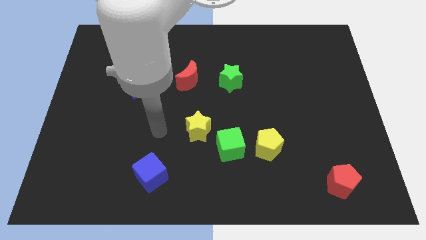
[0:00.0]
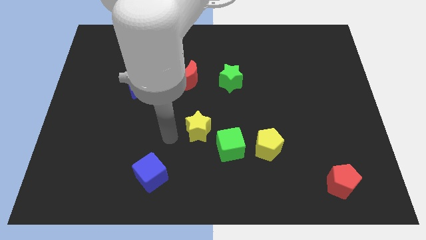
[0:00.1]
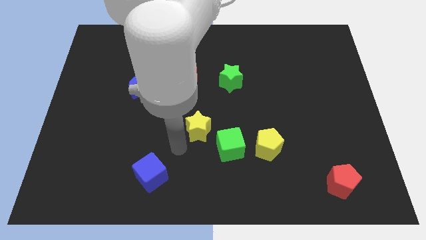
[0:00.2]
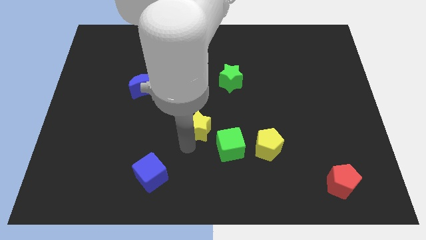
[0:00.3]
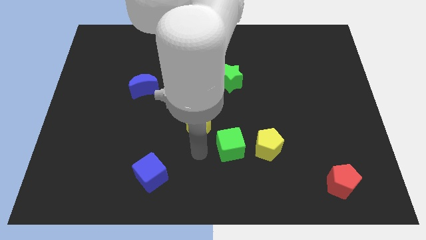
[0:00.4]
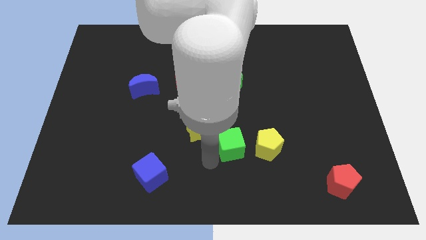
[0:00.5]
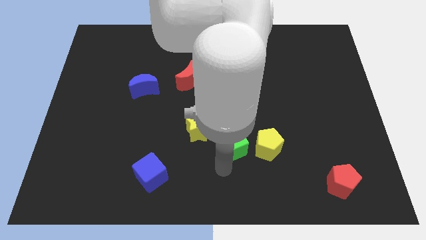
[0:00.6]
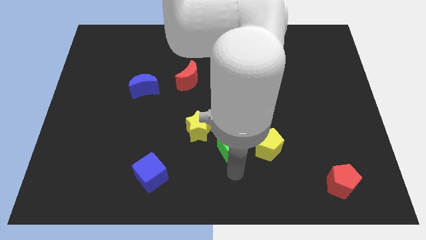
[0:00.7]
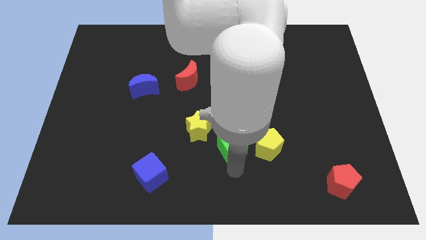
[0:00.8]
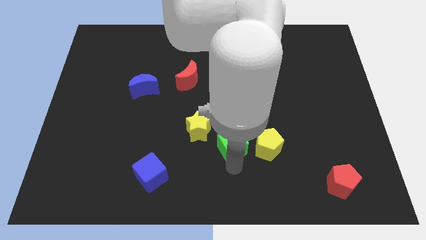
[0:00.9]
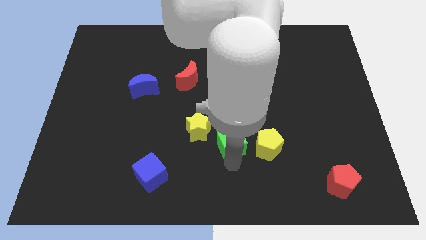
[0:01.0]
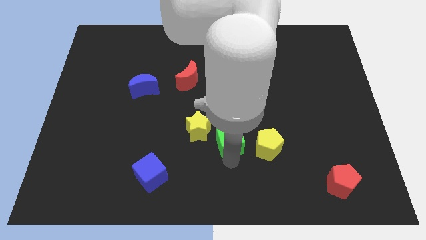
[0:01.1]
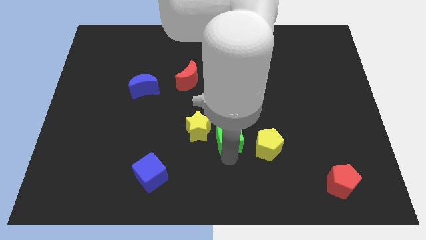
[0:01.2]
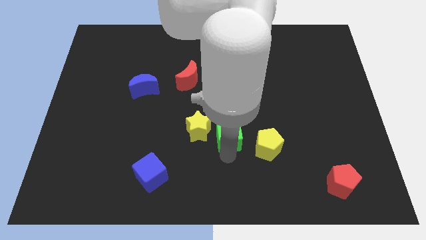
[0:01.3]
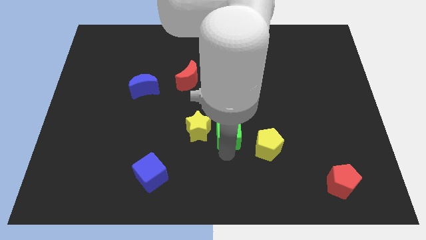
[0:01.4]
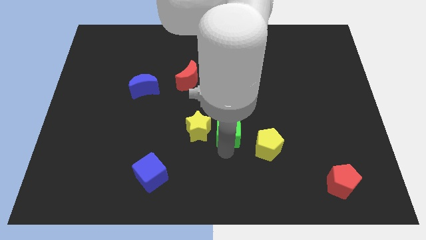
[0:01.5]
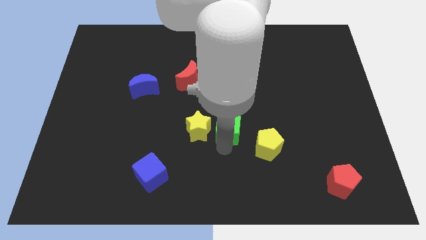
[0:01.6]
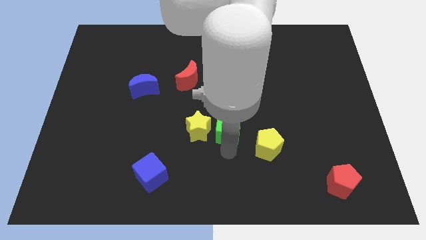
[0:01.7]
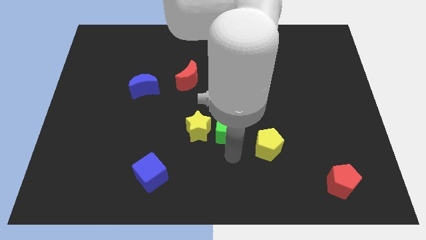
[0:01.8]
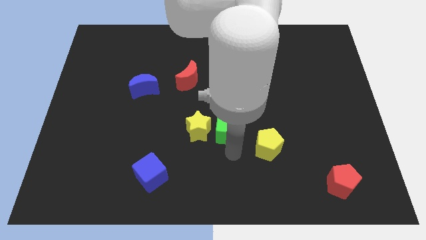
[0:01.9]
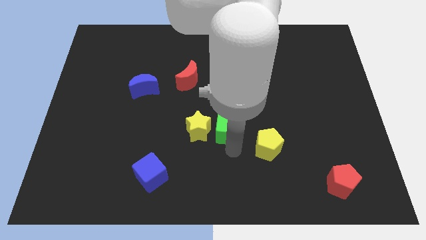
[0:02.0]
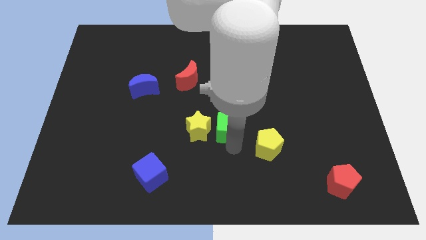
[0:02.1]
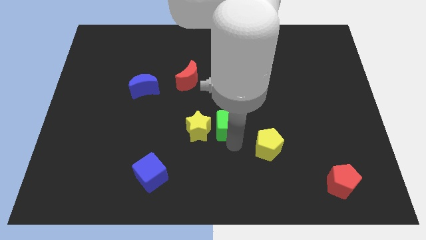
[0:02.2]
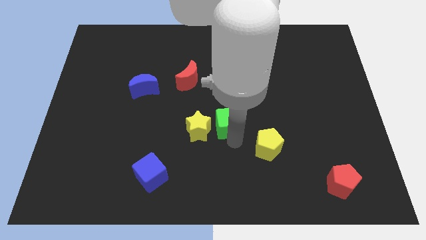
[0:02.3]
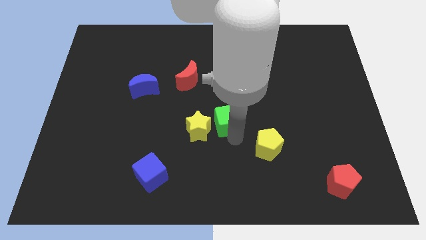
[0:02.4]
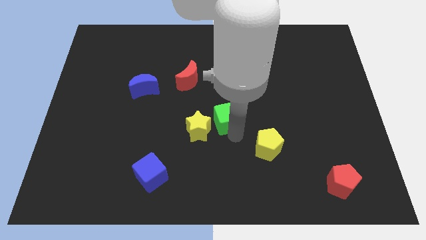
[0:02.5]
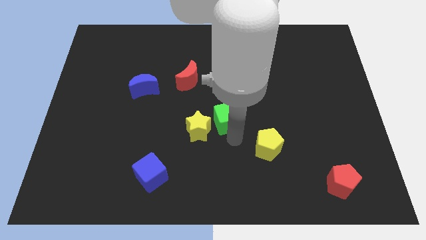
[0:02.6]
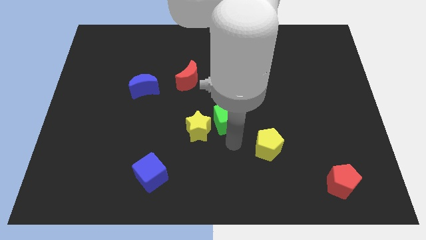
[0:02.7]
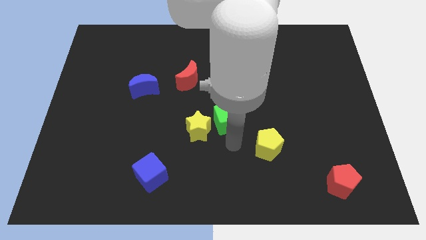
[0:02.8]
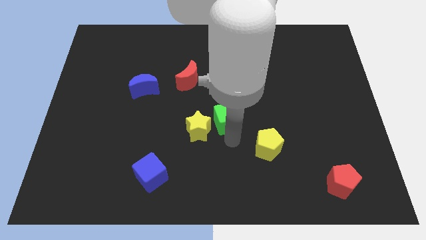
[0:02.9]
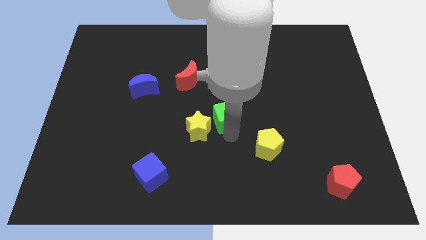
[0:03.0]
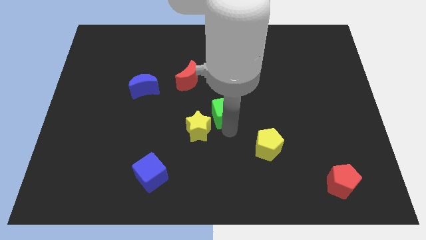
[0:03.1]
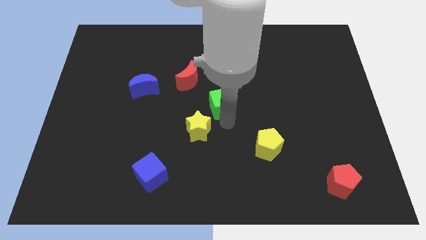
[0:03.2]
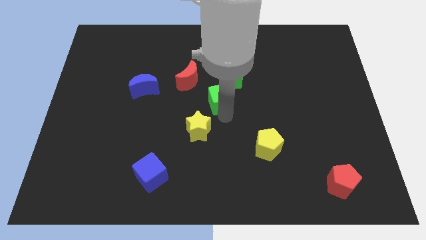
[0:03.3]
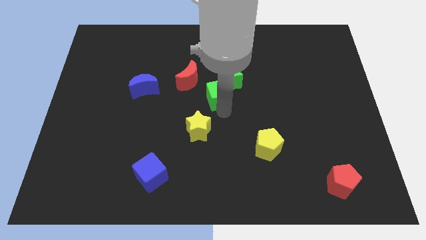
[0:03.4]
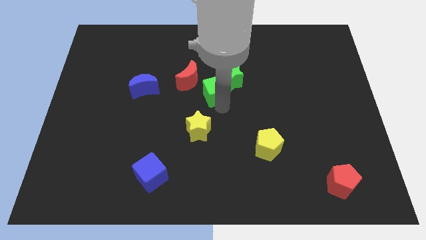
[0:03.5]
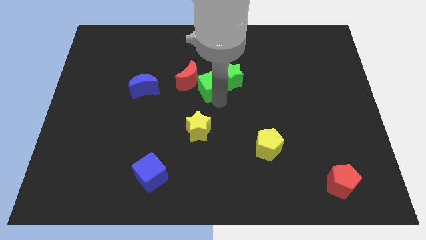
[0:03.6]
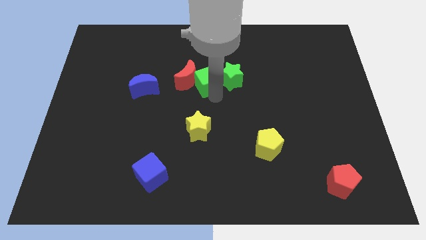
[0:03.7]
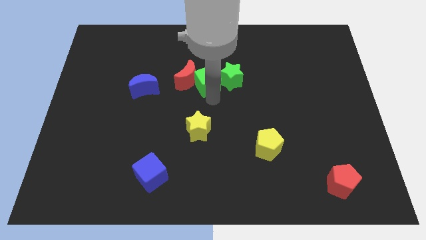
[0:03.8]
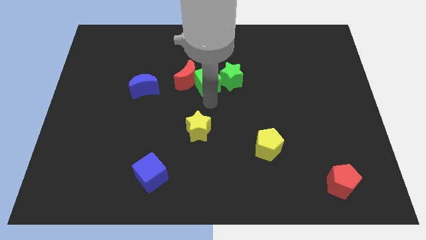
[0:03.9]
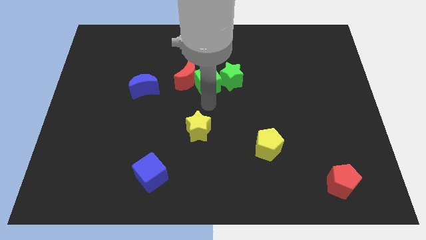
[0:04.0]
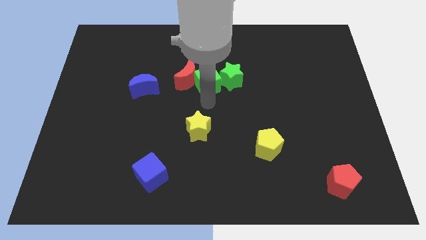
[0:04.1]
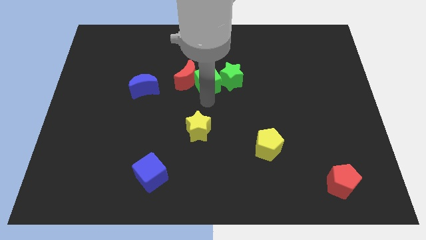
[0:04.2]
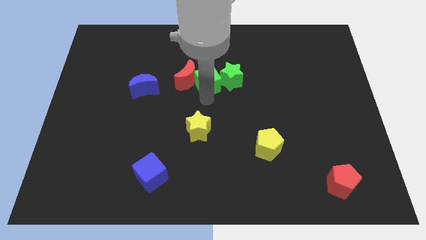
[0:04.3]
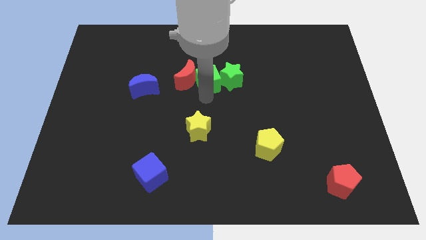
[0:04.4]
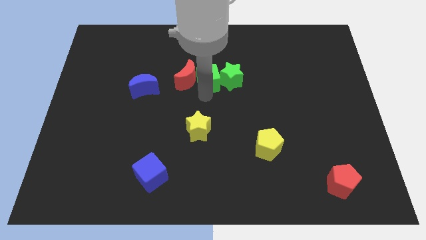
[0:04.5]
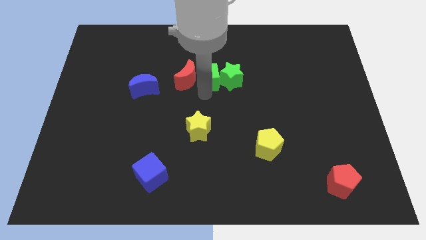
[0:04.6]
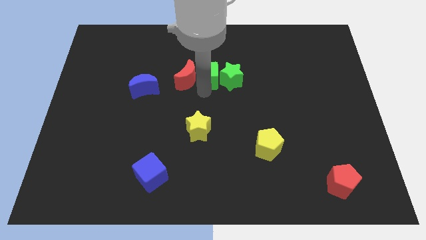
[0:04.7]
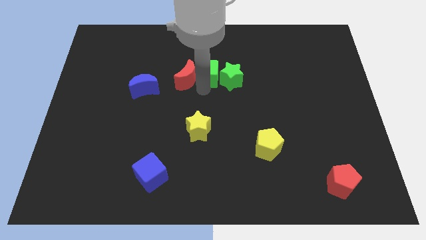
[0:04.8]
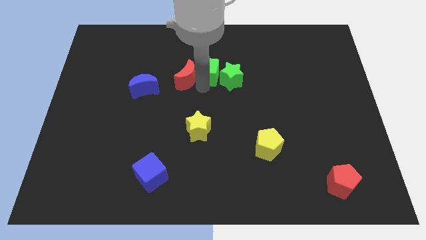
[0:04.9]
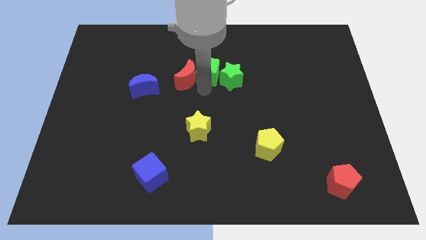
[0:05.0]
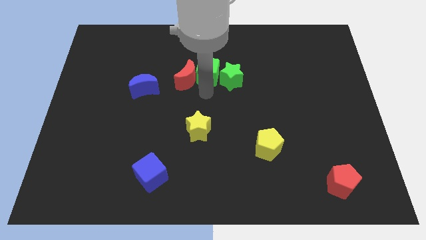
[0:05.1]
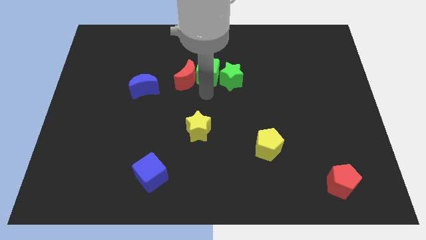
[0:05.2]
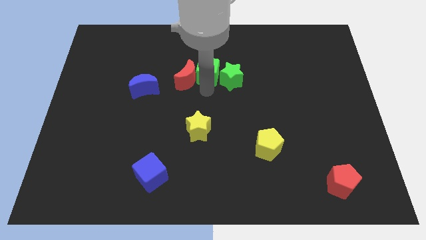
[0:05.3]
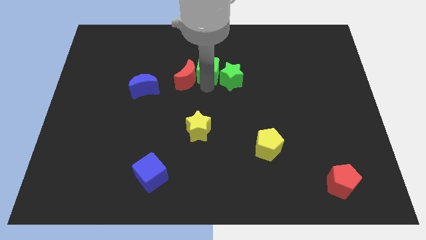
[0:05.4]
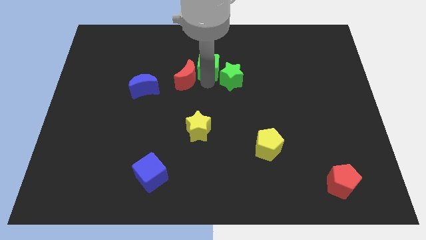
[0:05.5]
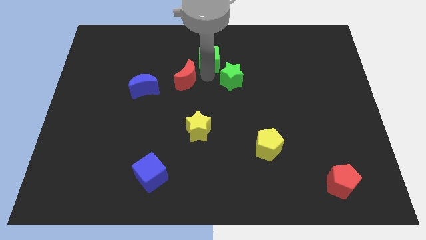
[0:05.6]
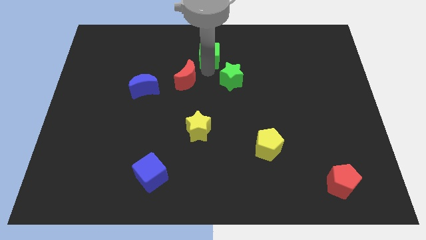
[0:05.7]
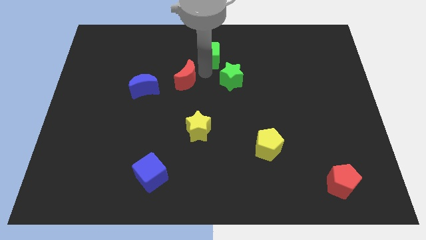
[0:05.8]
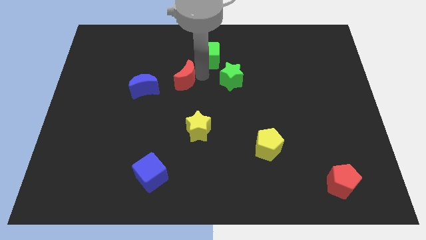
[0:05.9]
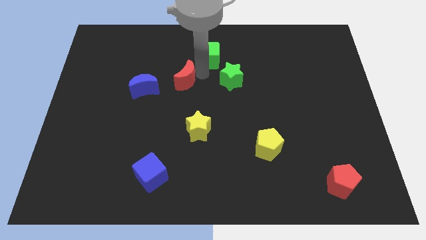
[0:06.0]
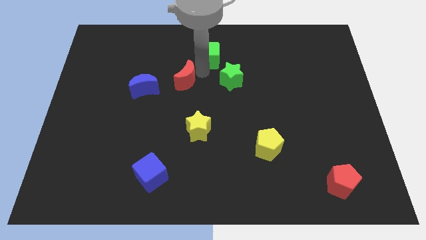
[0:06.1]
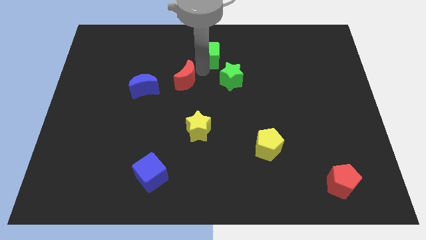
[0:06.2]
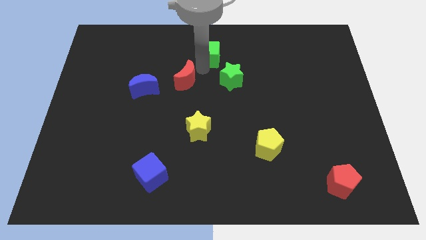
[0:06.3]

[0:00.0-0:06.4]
put the green cube to the towards your base

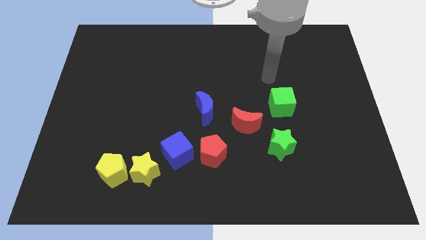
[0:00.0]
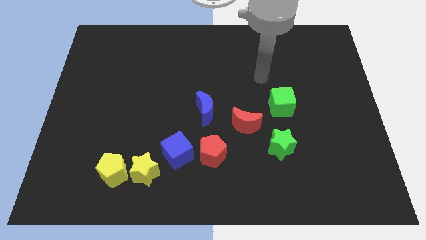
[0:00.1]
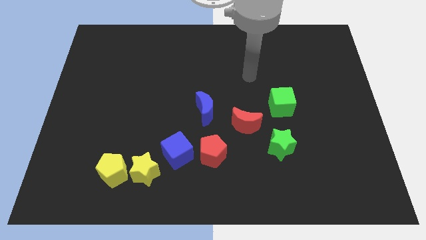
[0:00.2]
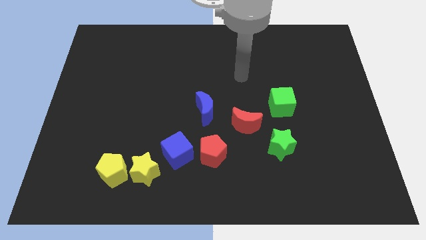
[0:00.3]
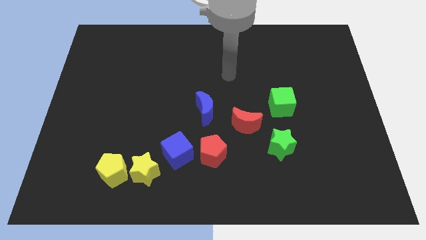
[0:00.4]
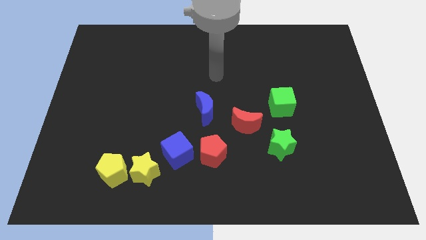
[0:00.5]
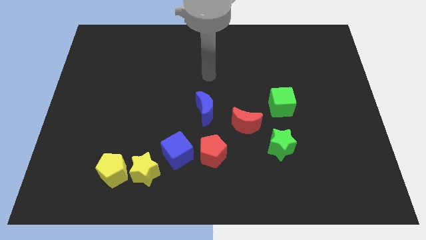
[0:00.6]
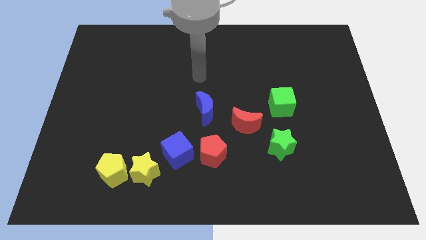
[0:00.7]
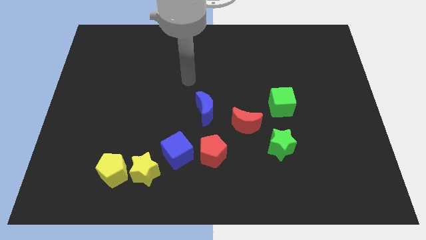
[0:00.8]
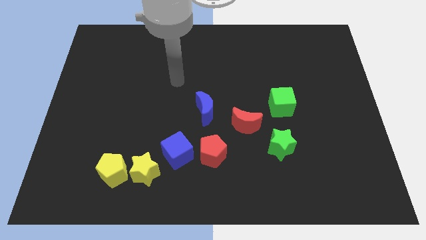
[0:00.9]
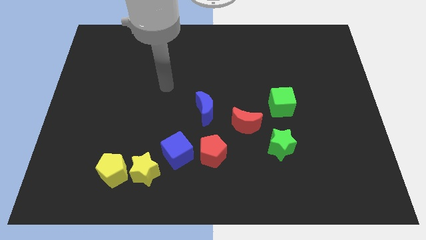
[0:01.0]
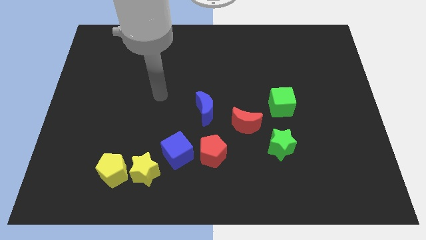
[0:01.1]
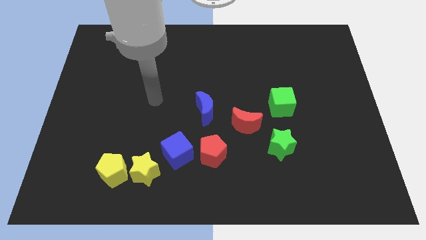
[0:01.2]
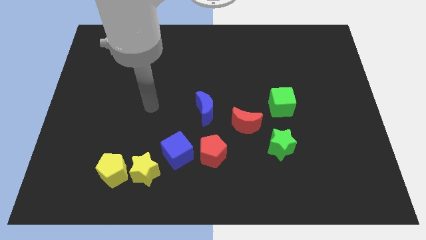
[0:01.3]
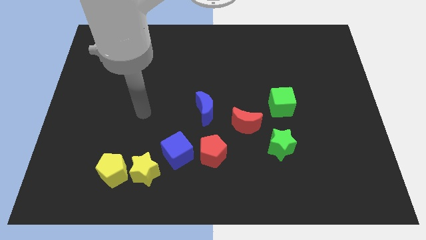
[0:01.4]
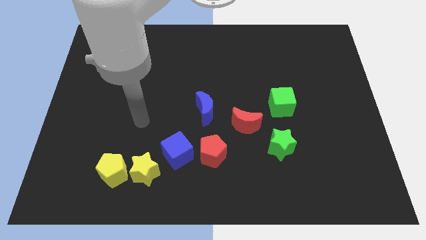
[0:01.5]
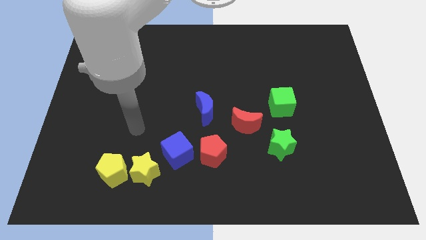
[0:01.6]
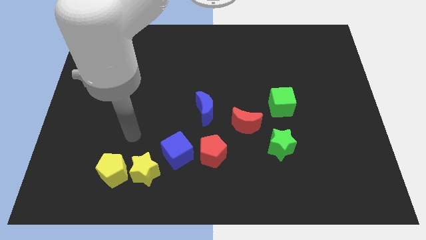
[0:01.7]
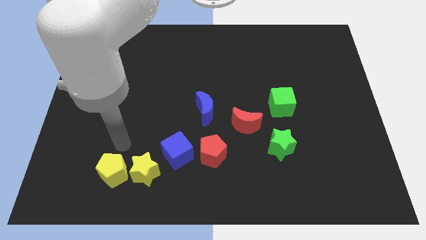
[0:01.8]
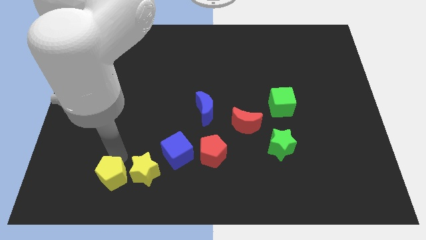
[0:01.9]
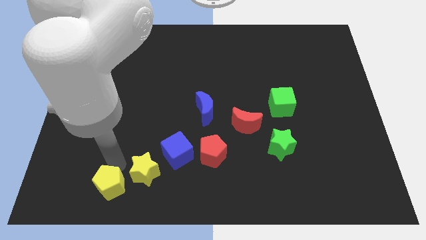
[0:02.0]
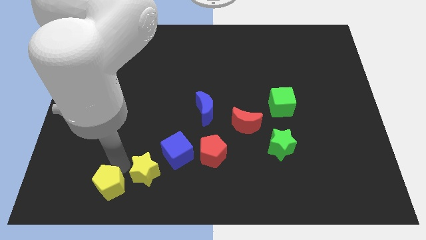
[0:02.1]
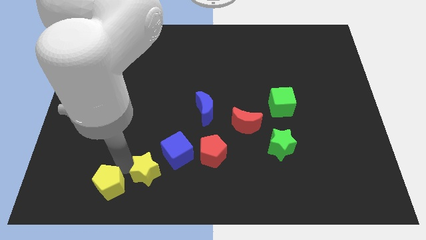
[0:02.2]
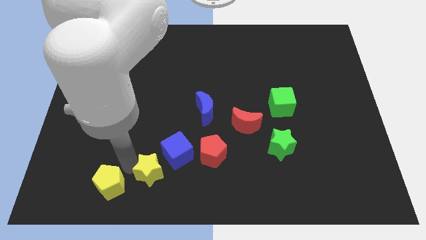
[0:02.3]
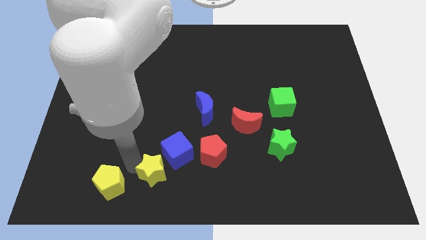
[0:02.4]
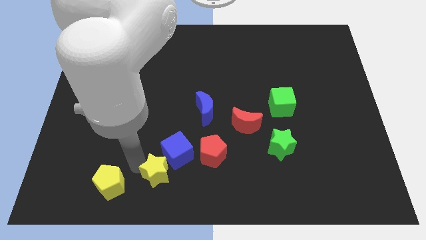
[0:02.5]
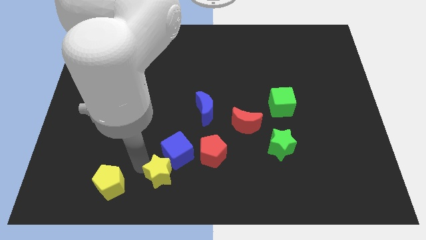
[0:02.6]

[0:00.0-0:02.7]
slide the yellow star to the bottom
